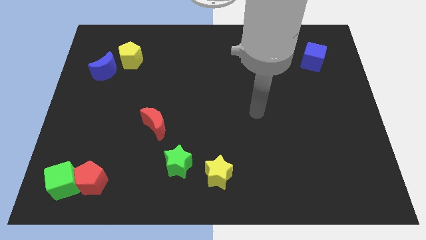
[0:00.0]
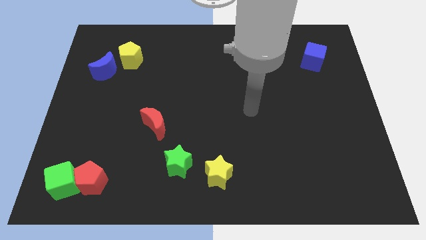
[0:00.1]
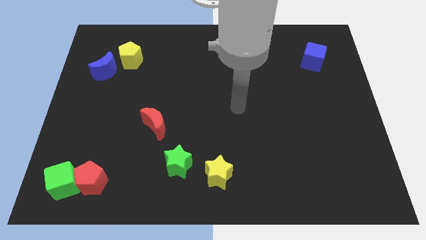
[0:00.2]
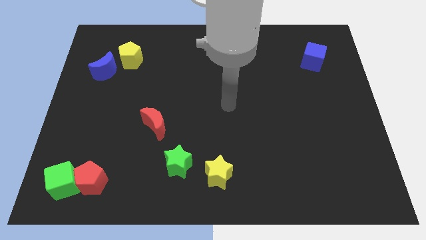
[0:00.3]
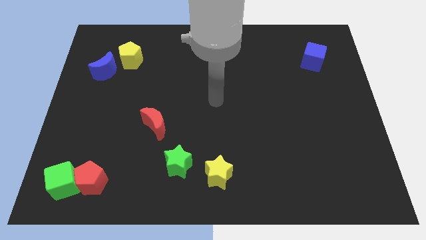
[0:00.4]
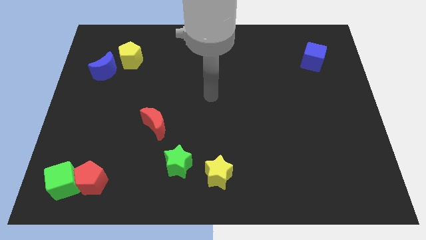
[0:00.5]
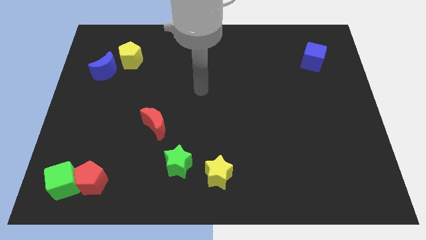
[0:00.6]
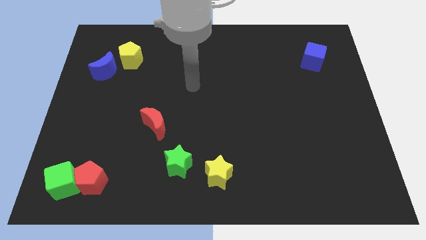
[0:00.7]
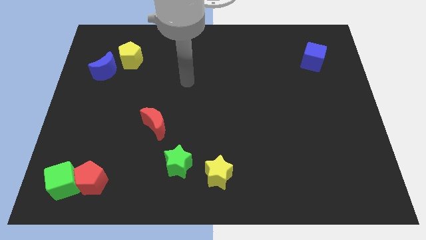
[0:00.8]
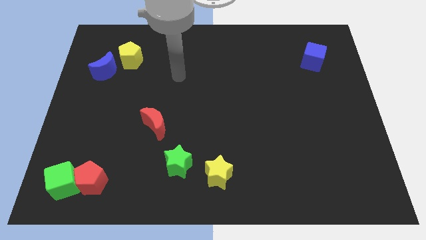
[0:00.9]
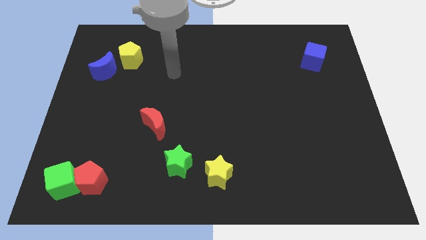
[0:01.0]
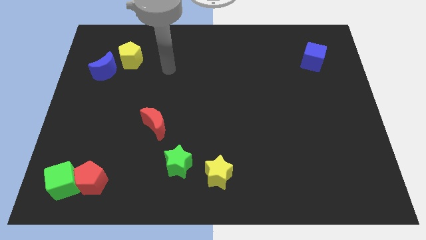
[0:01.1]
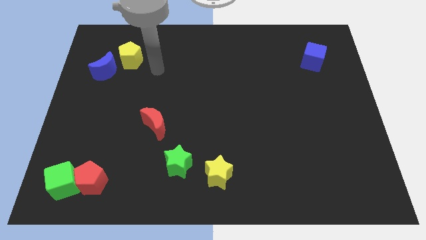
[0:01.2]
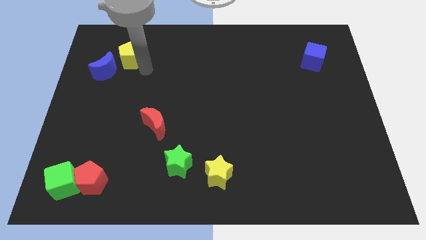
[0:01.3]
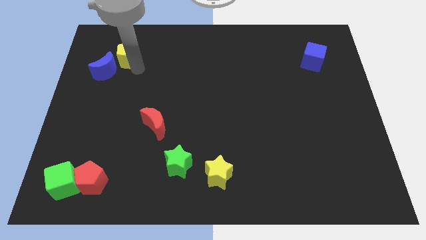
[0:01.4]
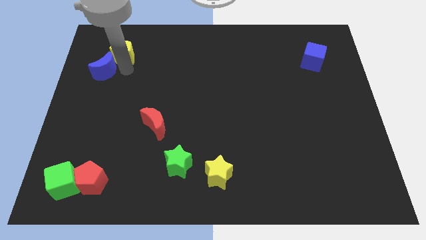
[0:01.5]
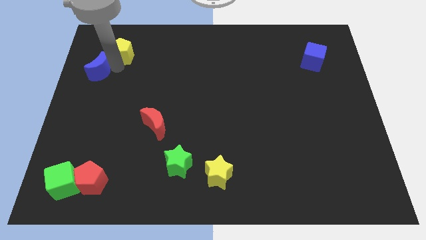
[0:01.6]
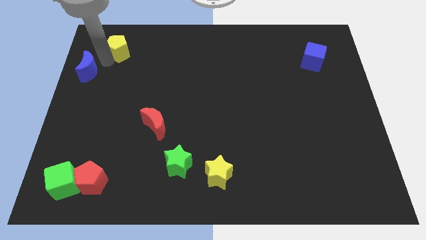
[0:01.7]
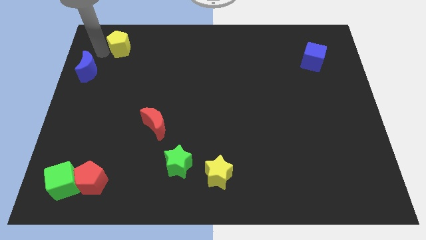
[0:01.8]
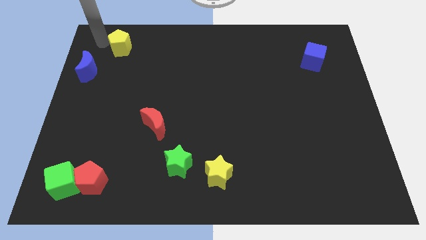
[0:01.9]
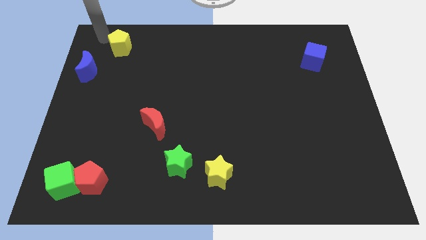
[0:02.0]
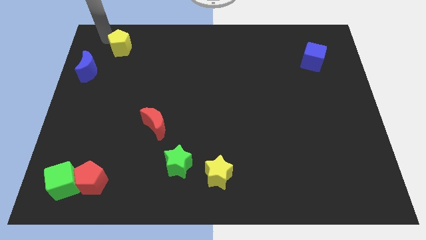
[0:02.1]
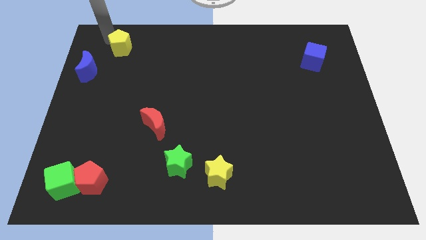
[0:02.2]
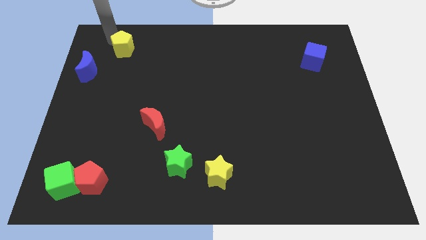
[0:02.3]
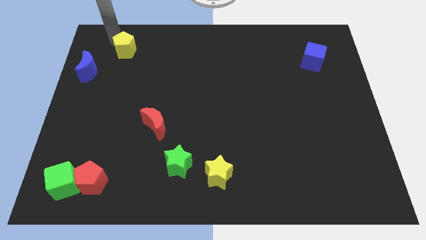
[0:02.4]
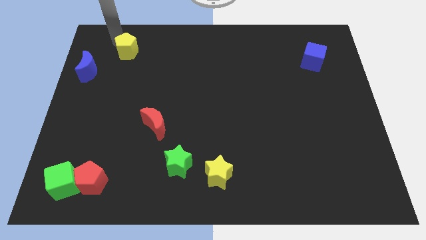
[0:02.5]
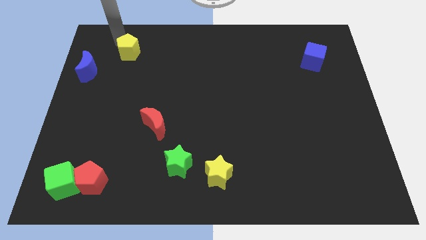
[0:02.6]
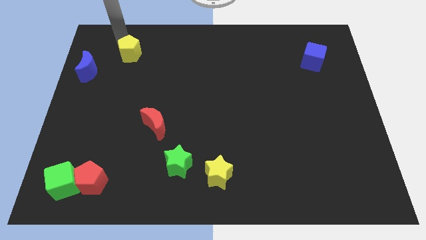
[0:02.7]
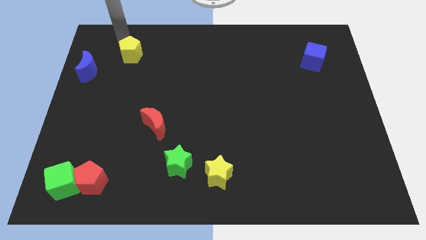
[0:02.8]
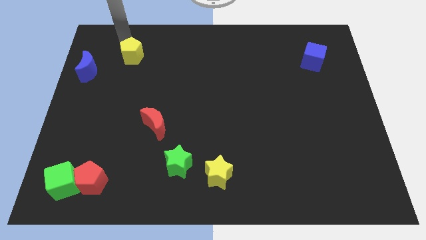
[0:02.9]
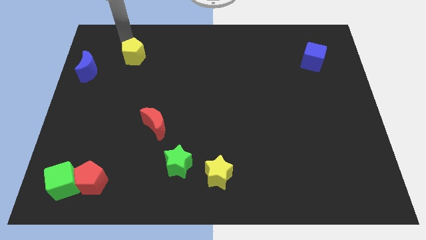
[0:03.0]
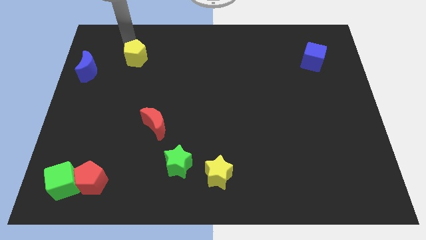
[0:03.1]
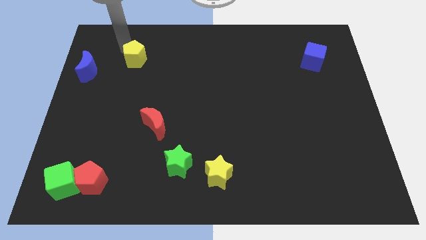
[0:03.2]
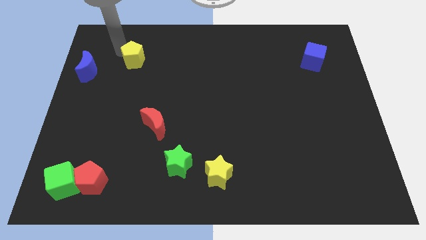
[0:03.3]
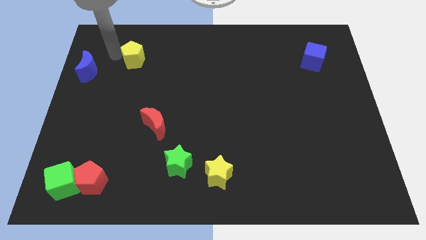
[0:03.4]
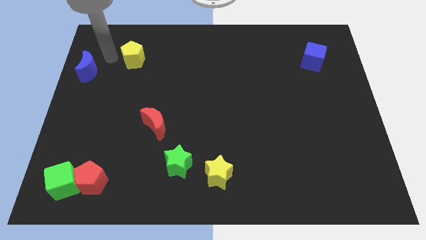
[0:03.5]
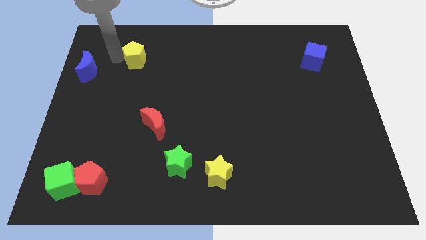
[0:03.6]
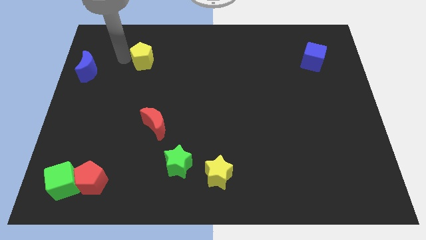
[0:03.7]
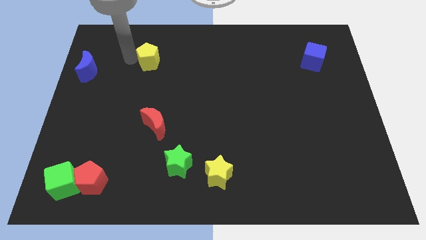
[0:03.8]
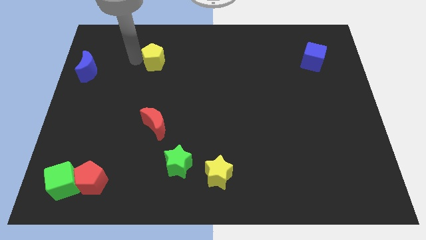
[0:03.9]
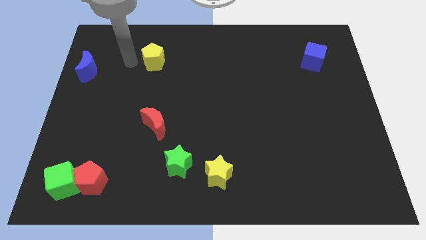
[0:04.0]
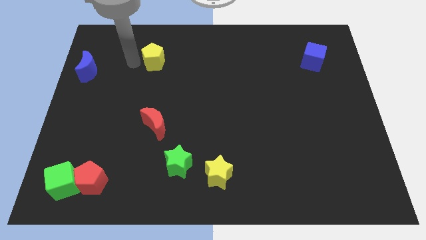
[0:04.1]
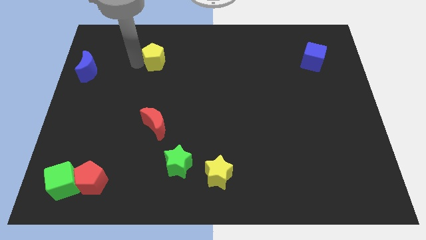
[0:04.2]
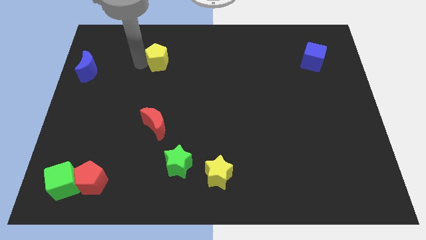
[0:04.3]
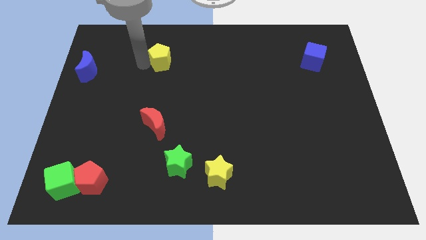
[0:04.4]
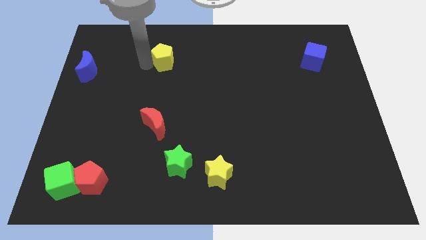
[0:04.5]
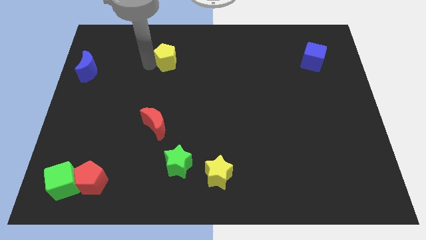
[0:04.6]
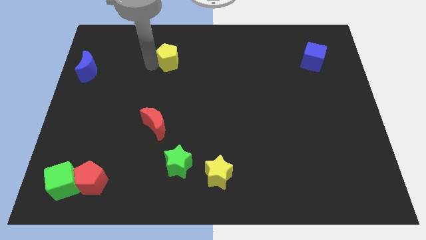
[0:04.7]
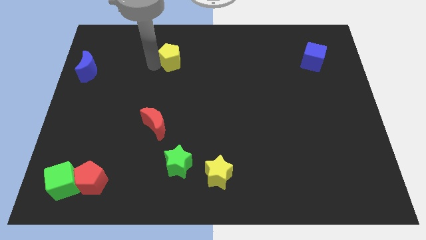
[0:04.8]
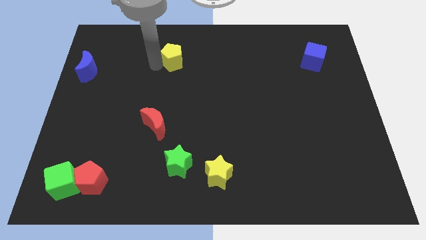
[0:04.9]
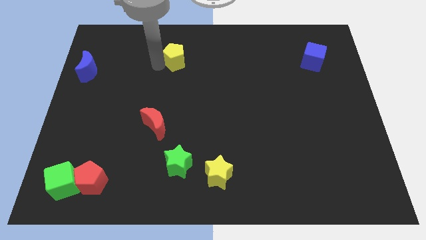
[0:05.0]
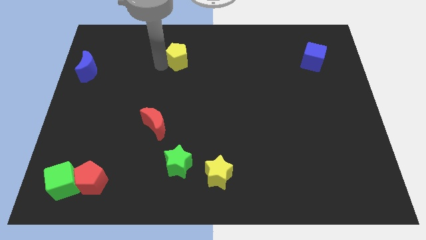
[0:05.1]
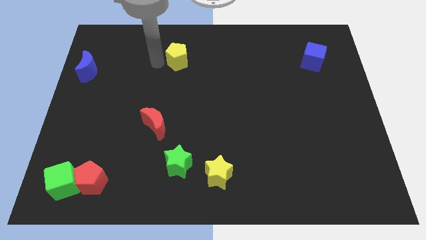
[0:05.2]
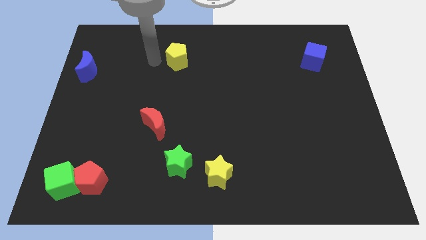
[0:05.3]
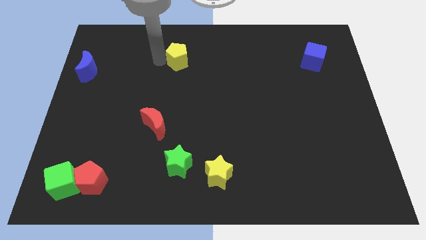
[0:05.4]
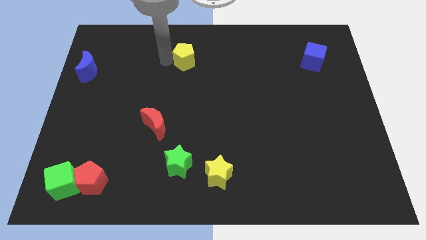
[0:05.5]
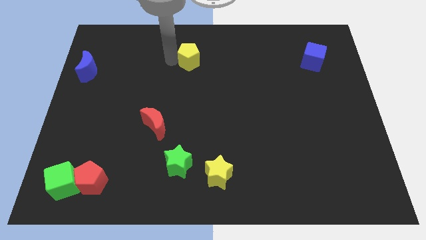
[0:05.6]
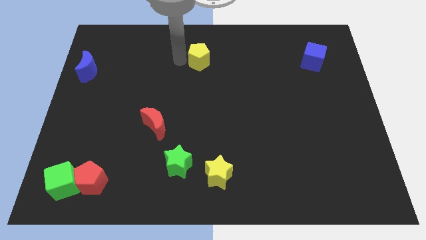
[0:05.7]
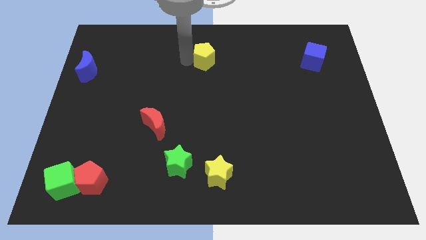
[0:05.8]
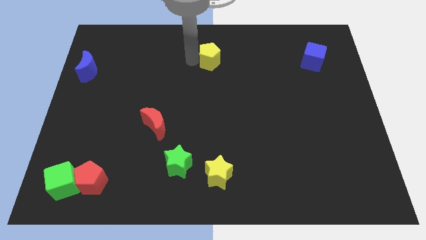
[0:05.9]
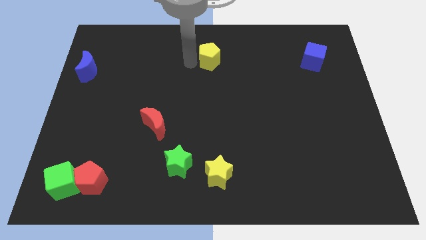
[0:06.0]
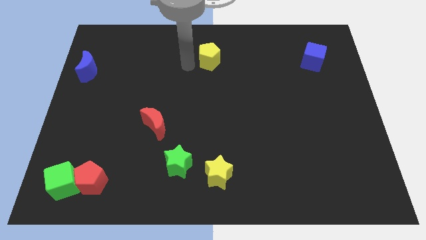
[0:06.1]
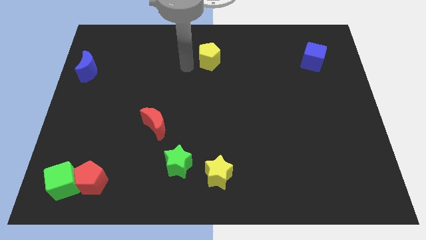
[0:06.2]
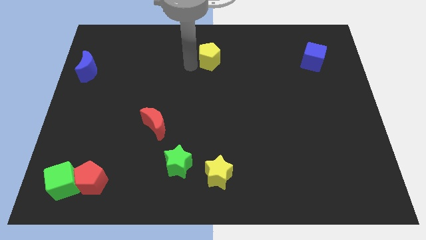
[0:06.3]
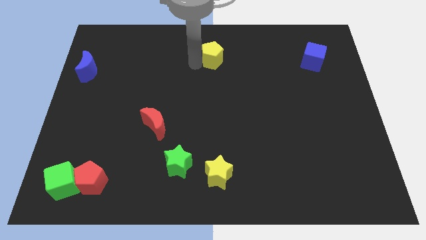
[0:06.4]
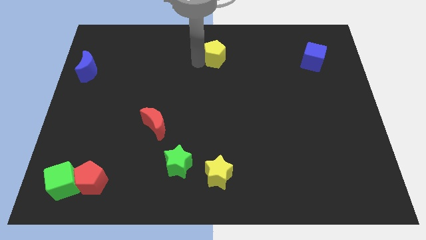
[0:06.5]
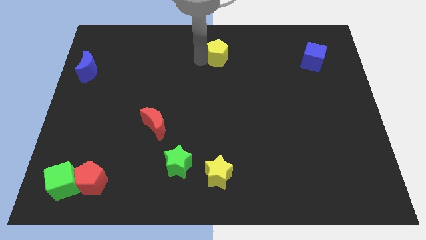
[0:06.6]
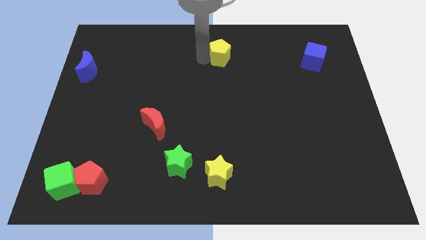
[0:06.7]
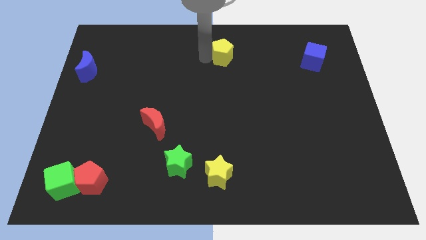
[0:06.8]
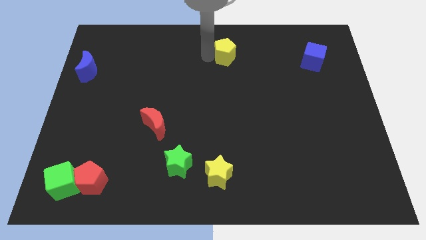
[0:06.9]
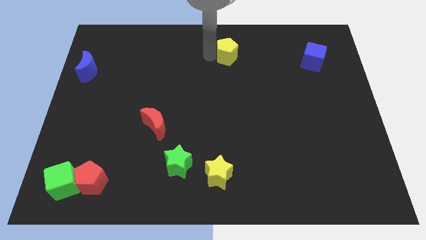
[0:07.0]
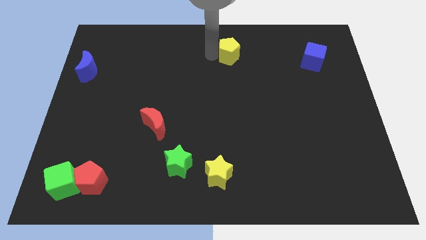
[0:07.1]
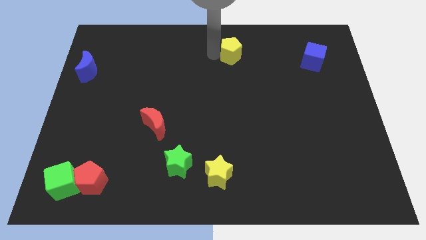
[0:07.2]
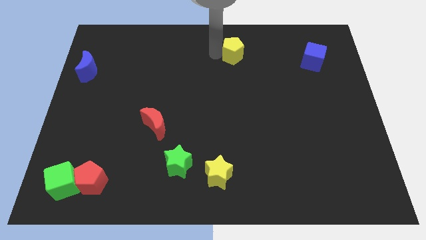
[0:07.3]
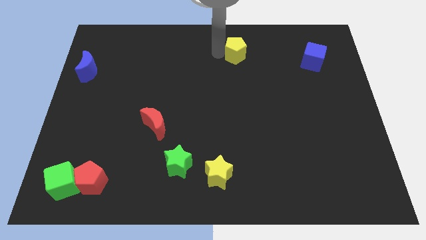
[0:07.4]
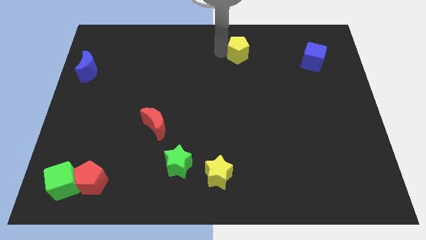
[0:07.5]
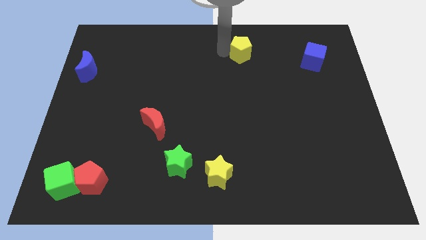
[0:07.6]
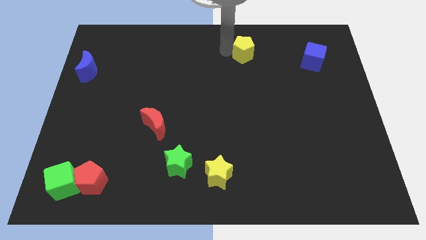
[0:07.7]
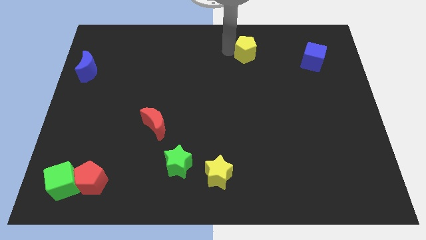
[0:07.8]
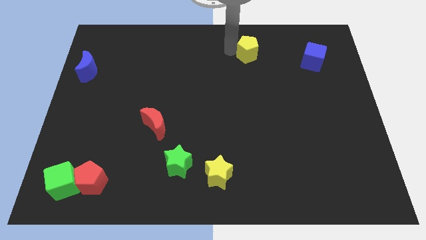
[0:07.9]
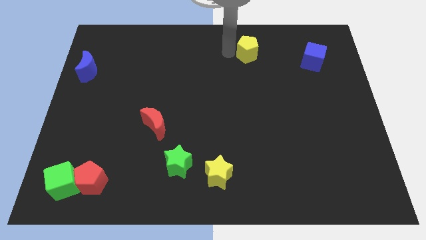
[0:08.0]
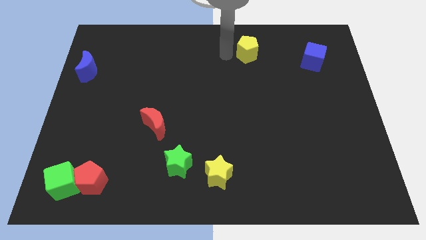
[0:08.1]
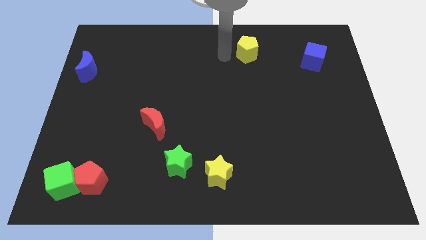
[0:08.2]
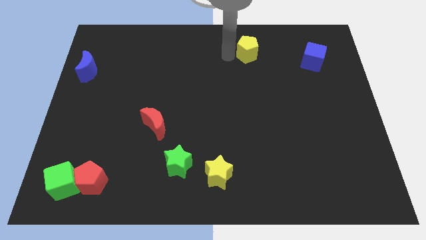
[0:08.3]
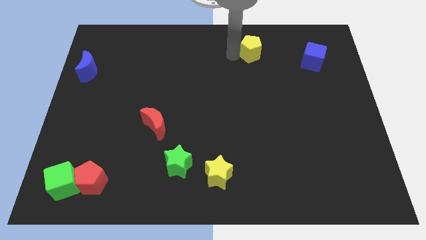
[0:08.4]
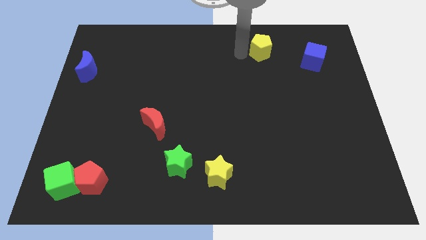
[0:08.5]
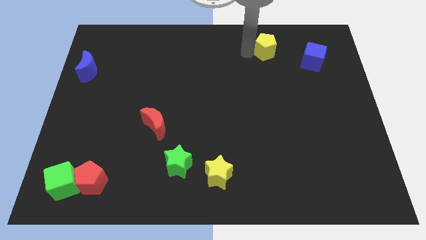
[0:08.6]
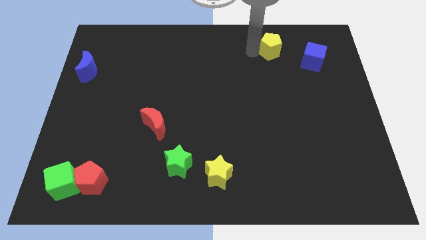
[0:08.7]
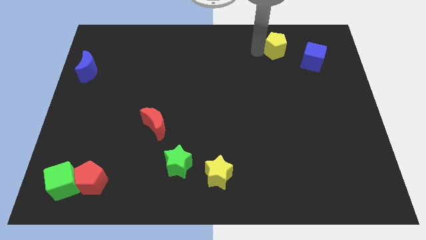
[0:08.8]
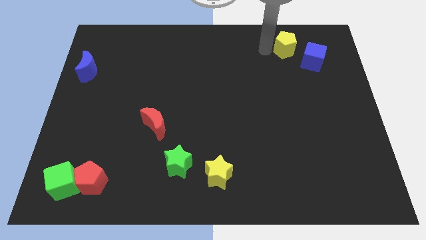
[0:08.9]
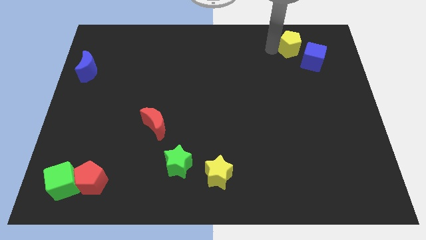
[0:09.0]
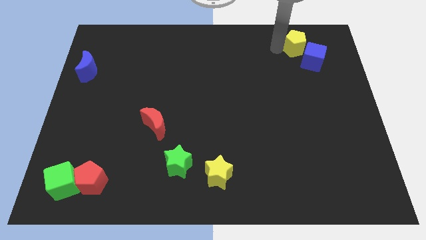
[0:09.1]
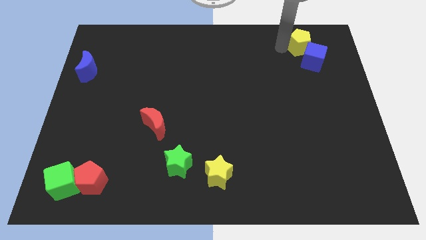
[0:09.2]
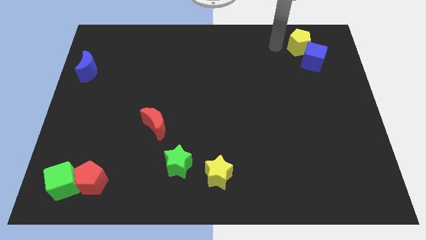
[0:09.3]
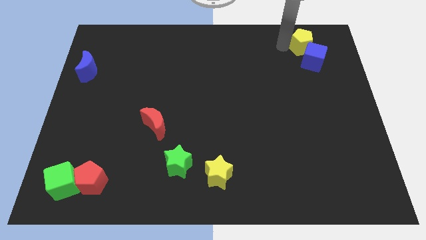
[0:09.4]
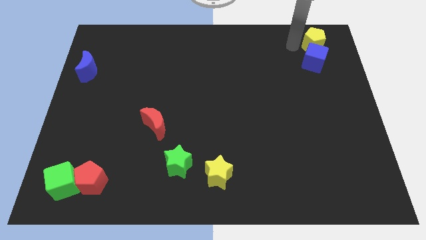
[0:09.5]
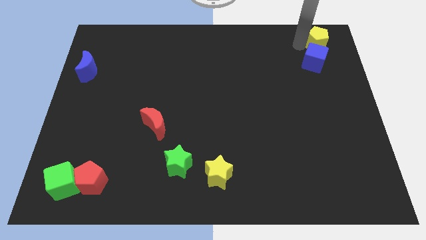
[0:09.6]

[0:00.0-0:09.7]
slide the yellow pentagon to the top right
